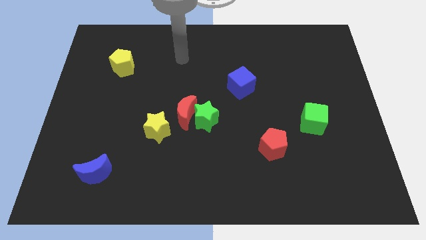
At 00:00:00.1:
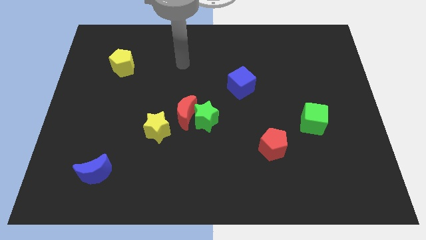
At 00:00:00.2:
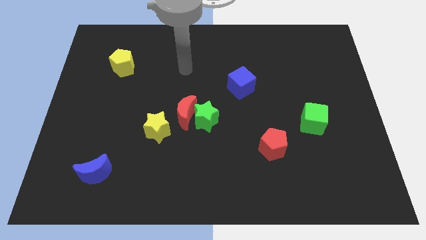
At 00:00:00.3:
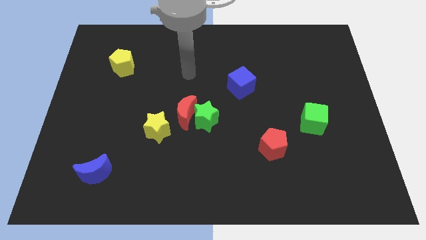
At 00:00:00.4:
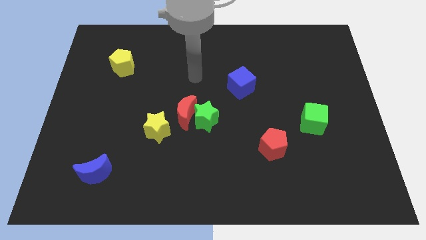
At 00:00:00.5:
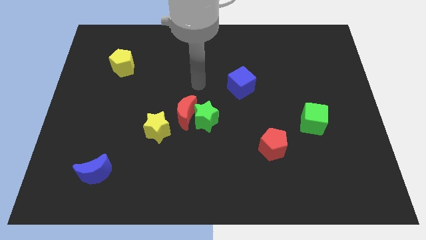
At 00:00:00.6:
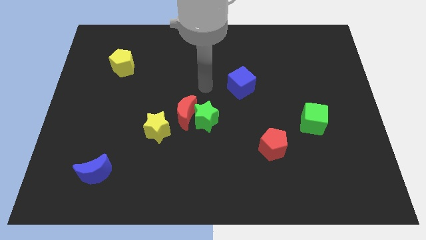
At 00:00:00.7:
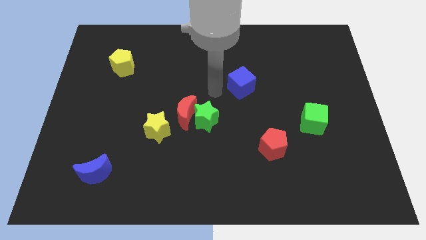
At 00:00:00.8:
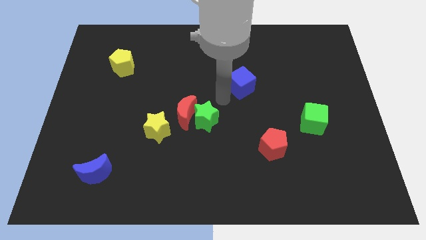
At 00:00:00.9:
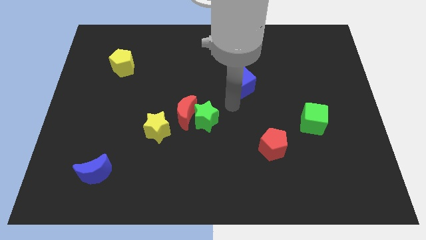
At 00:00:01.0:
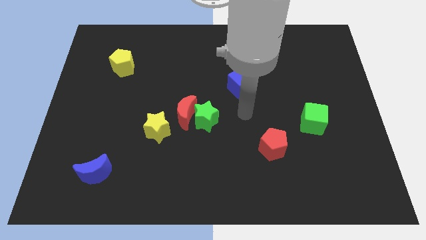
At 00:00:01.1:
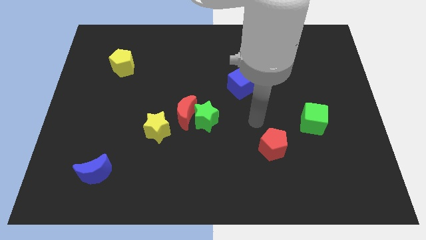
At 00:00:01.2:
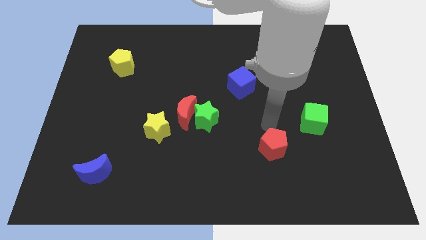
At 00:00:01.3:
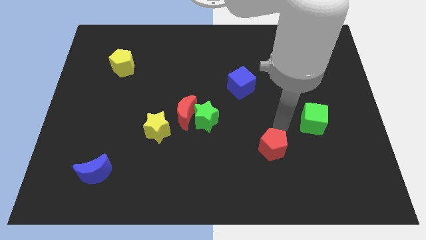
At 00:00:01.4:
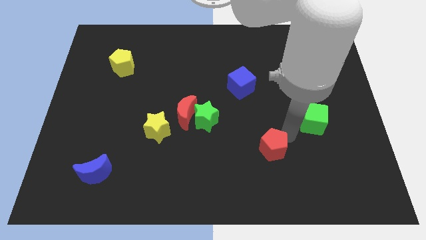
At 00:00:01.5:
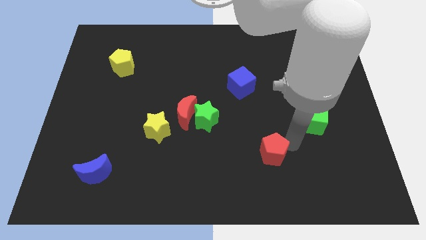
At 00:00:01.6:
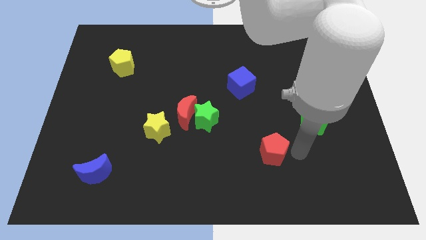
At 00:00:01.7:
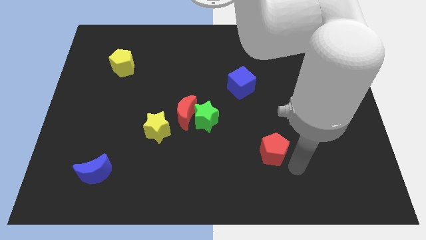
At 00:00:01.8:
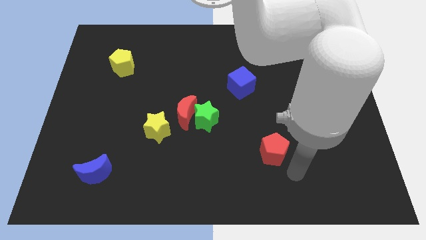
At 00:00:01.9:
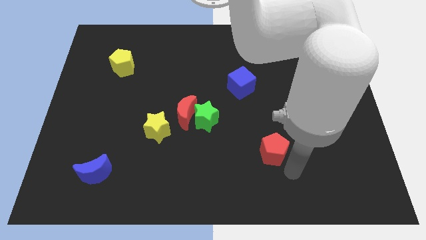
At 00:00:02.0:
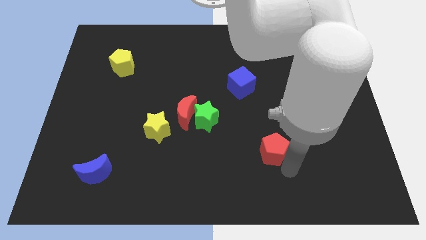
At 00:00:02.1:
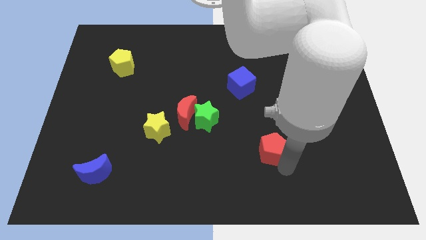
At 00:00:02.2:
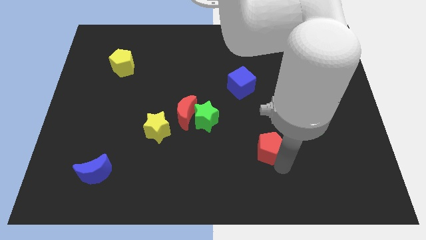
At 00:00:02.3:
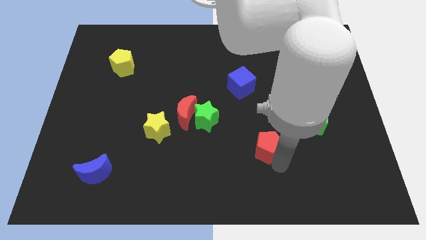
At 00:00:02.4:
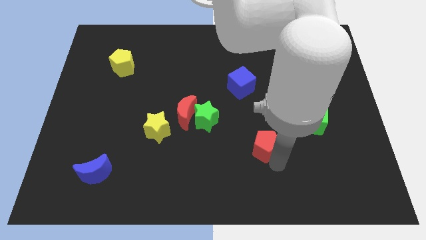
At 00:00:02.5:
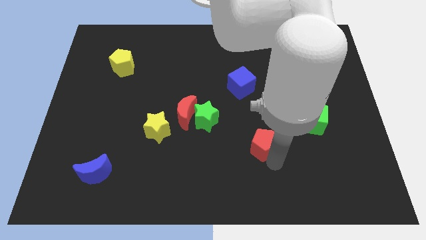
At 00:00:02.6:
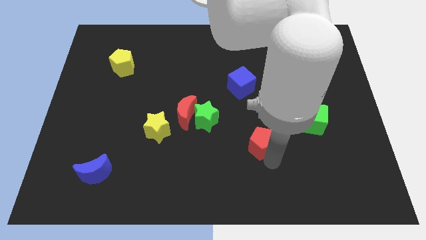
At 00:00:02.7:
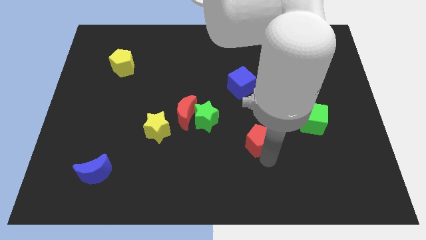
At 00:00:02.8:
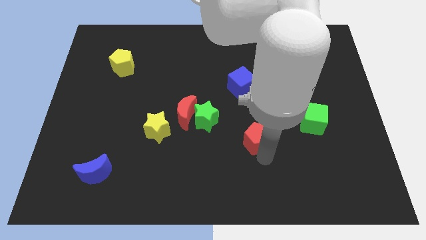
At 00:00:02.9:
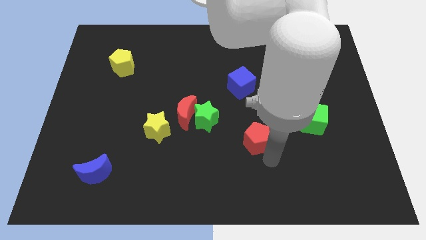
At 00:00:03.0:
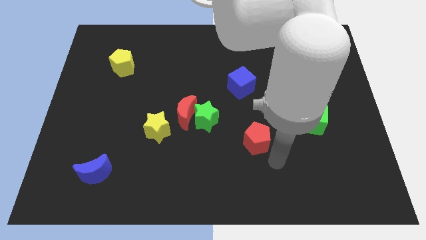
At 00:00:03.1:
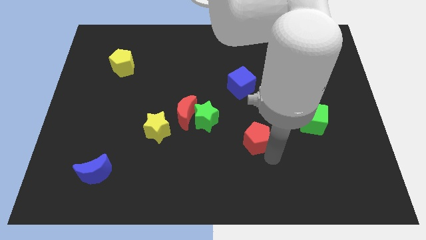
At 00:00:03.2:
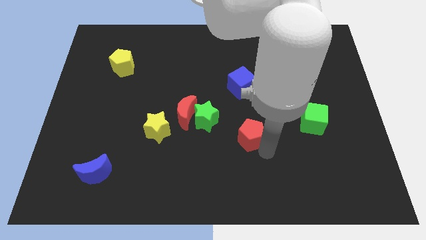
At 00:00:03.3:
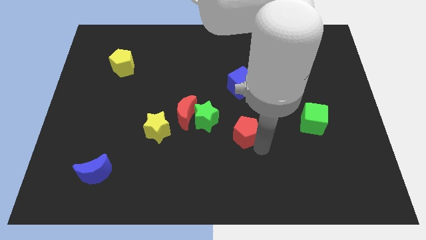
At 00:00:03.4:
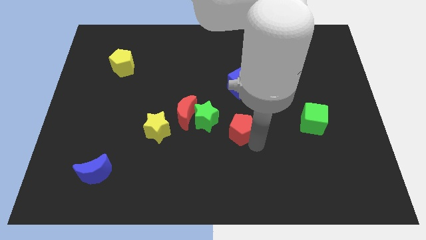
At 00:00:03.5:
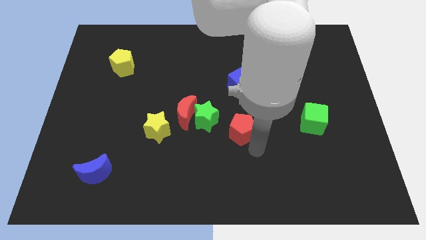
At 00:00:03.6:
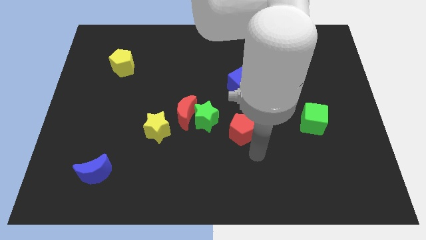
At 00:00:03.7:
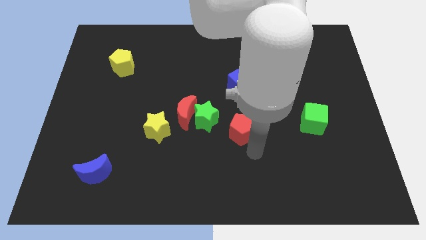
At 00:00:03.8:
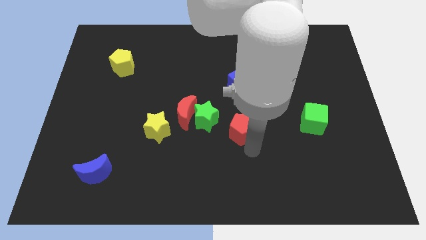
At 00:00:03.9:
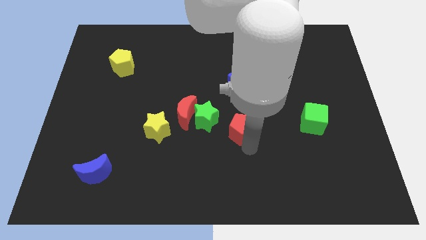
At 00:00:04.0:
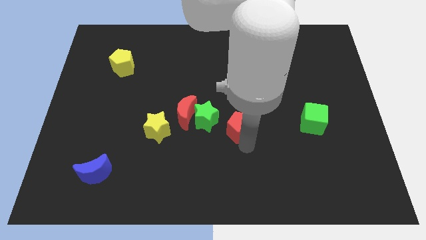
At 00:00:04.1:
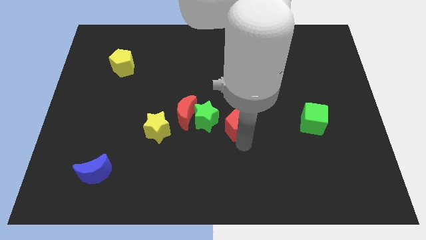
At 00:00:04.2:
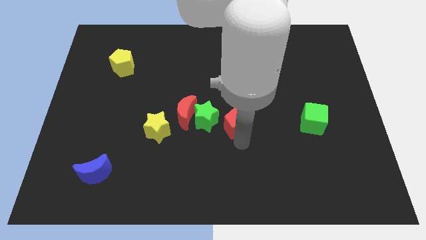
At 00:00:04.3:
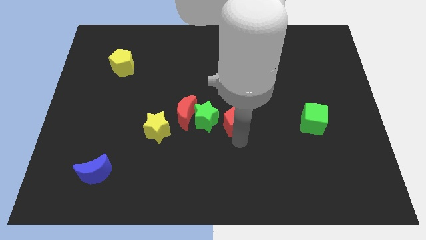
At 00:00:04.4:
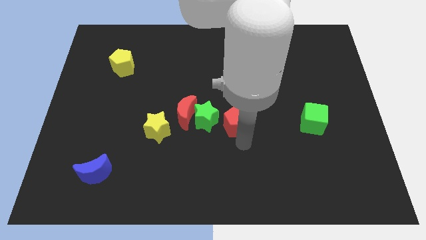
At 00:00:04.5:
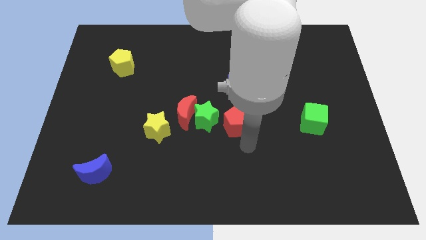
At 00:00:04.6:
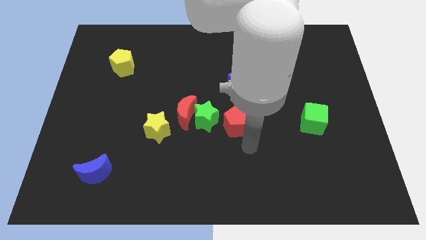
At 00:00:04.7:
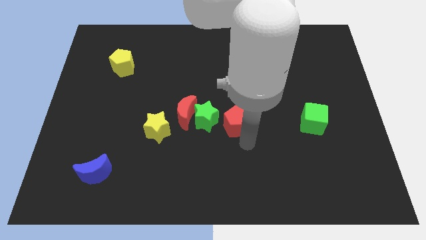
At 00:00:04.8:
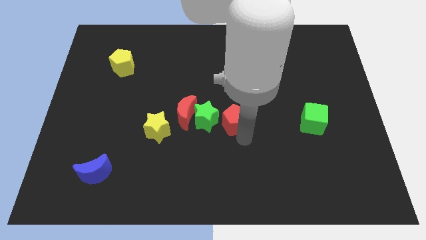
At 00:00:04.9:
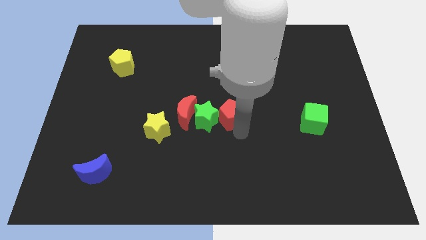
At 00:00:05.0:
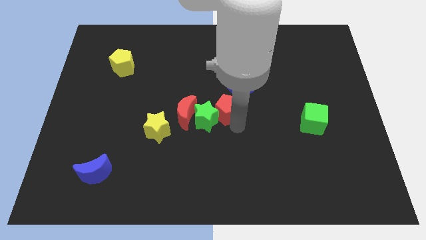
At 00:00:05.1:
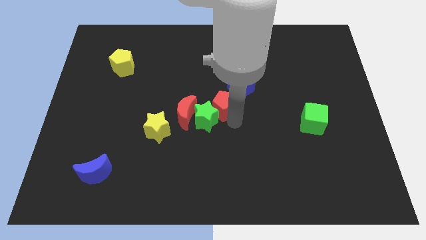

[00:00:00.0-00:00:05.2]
slide the red pentagon above the green star

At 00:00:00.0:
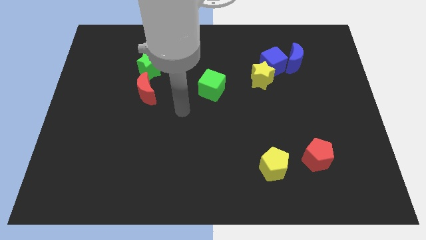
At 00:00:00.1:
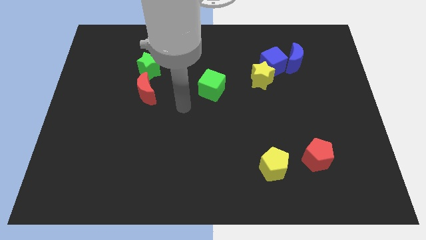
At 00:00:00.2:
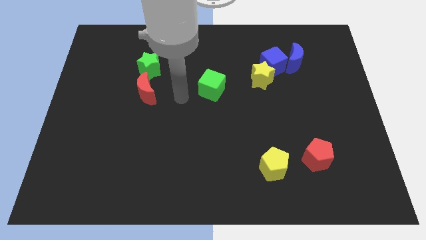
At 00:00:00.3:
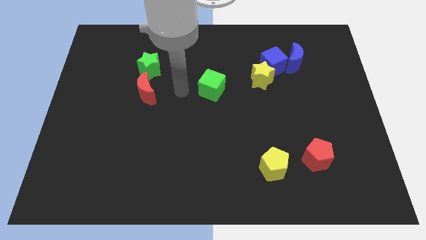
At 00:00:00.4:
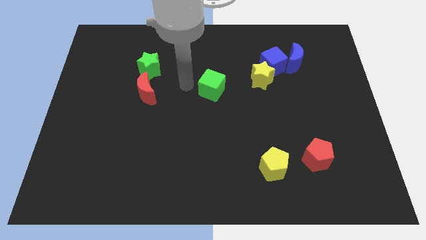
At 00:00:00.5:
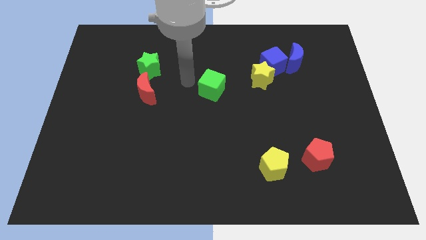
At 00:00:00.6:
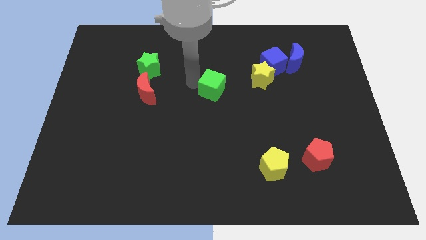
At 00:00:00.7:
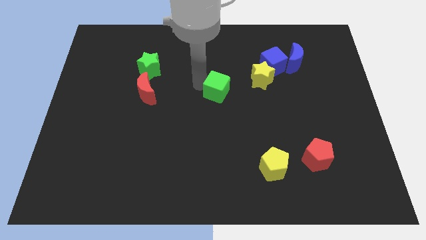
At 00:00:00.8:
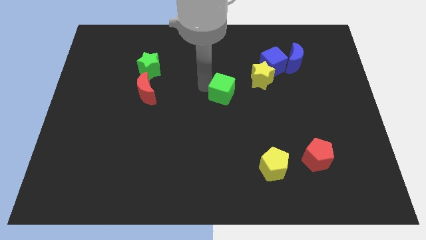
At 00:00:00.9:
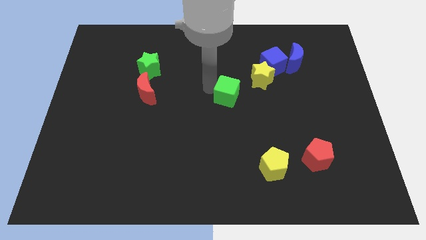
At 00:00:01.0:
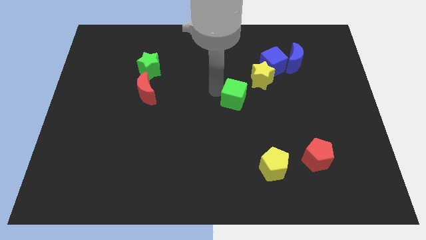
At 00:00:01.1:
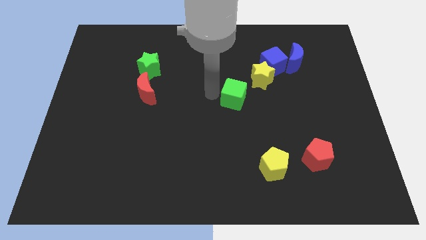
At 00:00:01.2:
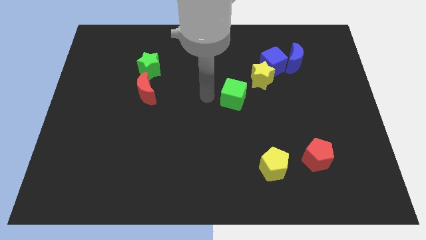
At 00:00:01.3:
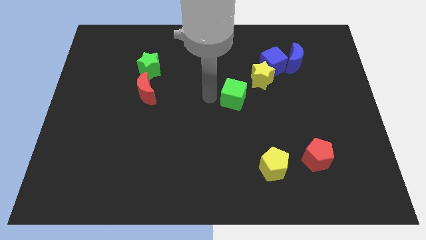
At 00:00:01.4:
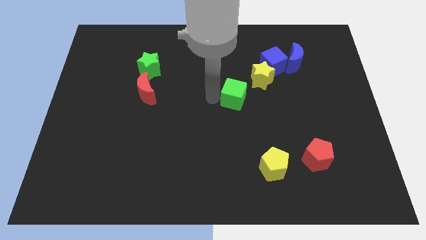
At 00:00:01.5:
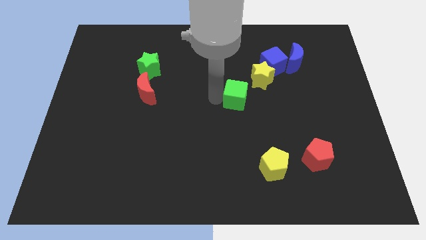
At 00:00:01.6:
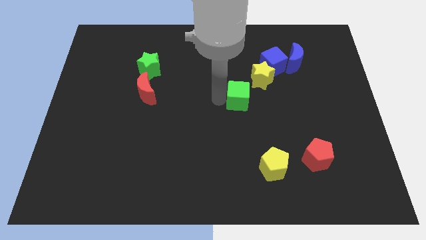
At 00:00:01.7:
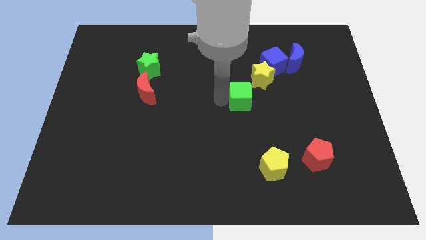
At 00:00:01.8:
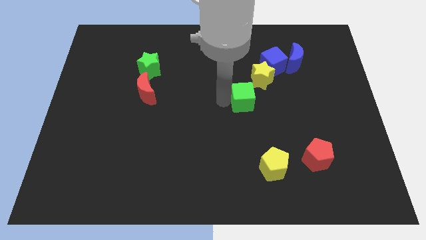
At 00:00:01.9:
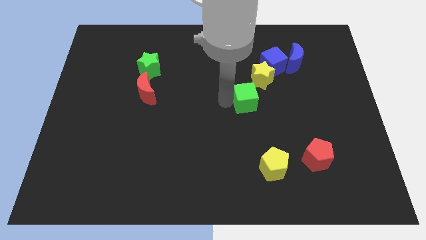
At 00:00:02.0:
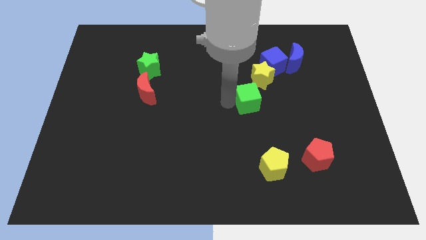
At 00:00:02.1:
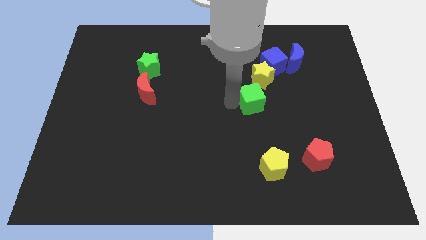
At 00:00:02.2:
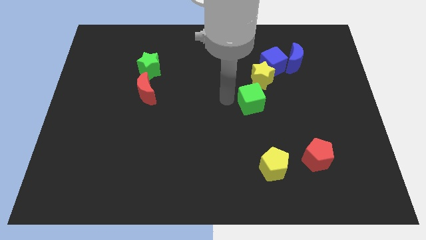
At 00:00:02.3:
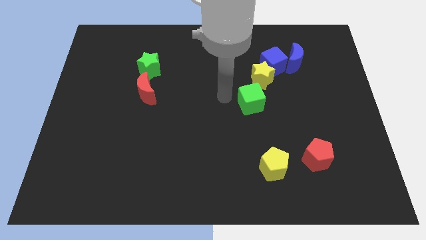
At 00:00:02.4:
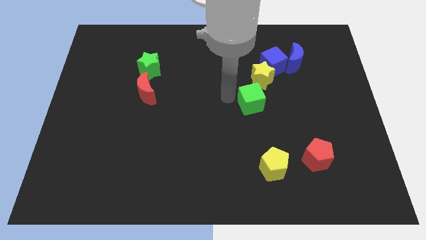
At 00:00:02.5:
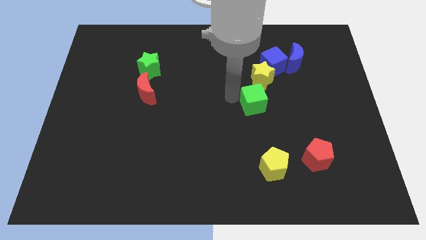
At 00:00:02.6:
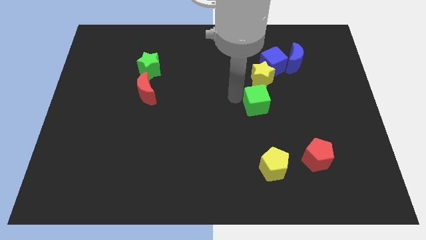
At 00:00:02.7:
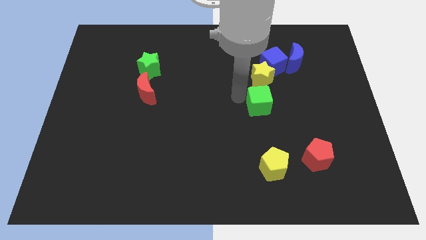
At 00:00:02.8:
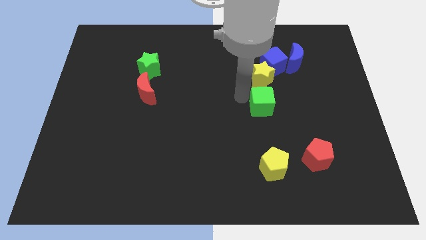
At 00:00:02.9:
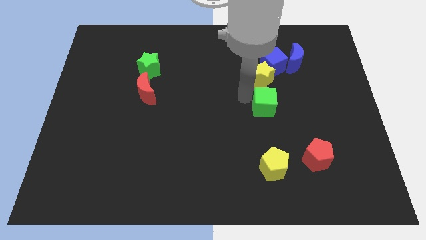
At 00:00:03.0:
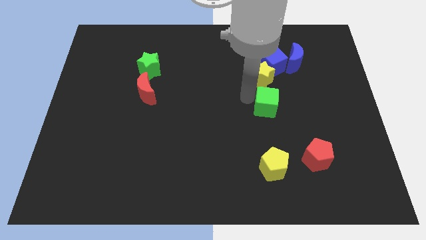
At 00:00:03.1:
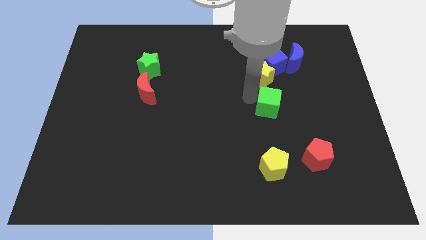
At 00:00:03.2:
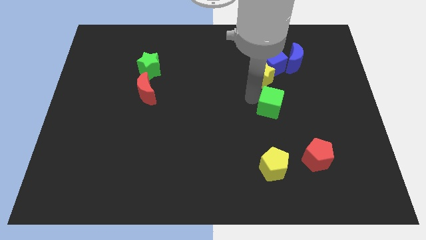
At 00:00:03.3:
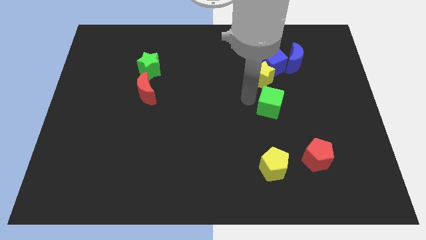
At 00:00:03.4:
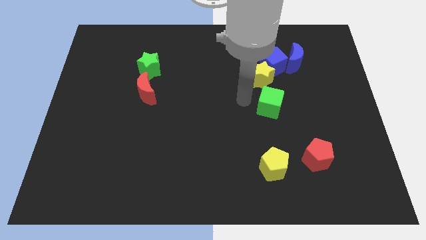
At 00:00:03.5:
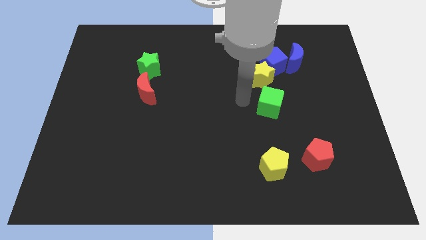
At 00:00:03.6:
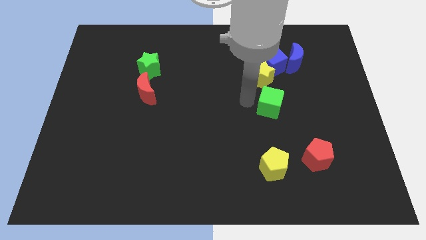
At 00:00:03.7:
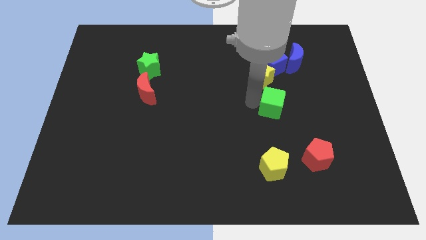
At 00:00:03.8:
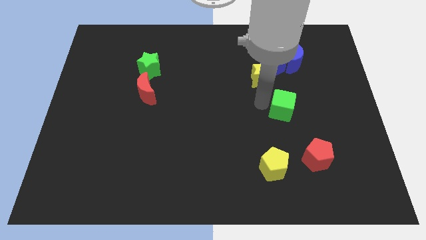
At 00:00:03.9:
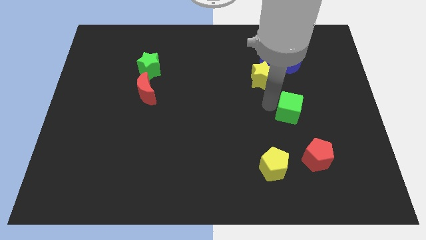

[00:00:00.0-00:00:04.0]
push the green cube above the red pentagon
